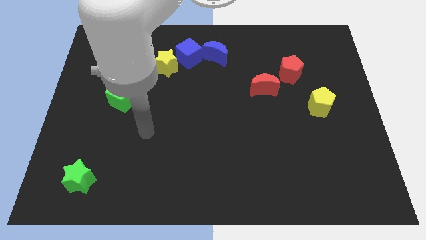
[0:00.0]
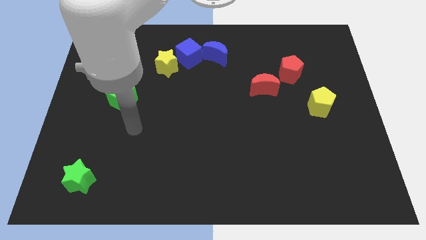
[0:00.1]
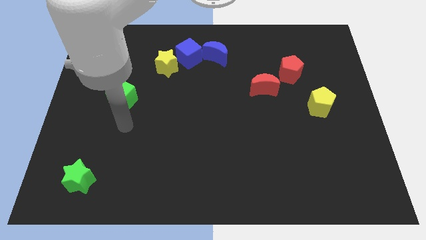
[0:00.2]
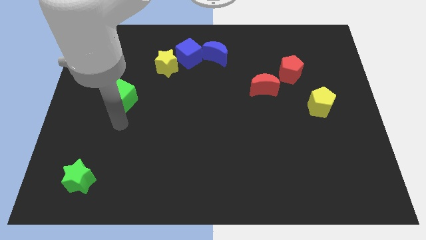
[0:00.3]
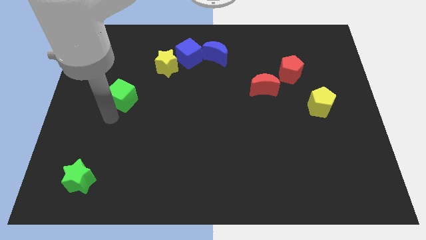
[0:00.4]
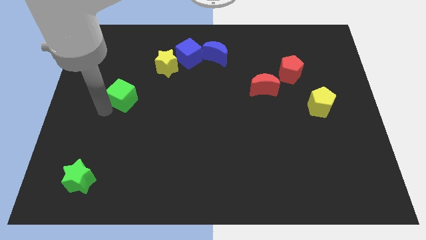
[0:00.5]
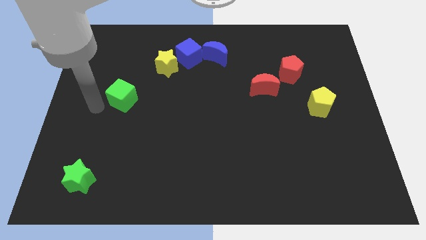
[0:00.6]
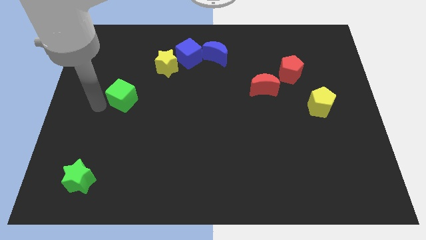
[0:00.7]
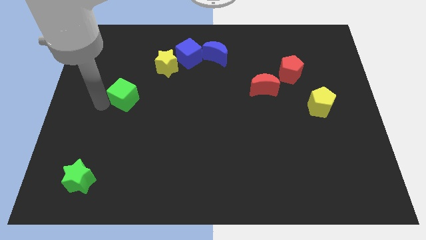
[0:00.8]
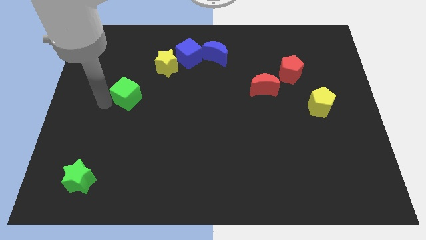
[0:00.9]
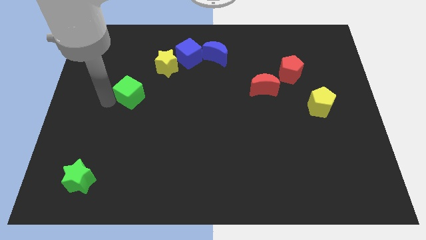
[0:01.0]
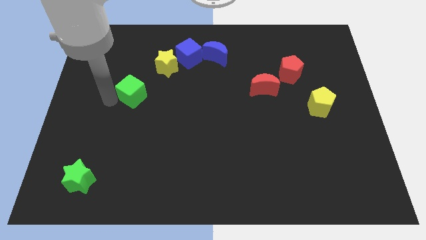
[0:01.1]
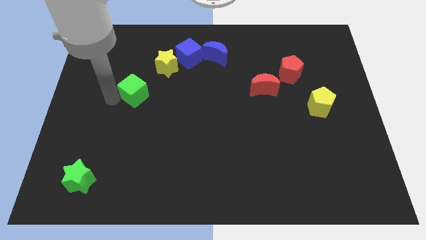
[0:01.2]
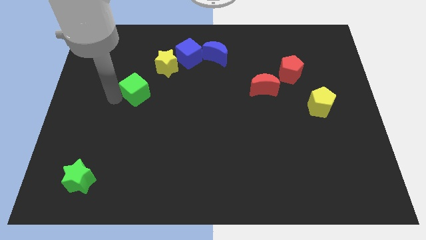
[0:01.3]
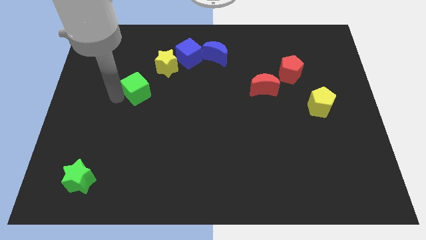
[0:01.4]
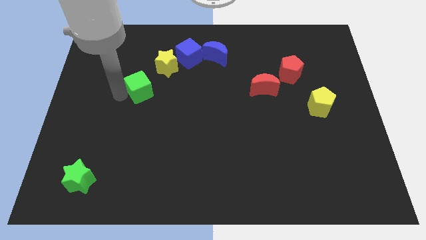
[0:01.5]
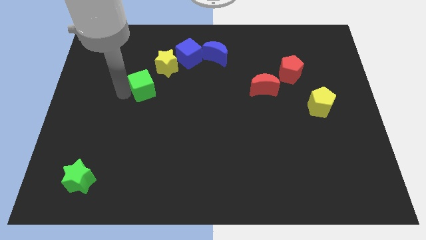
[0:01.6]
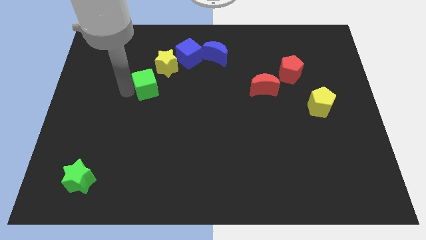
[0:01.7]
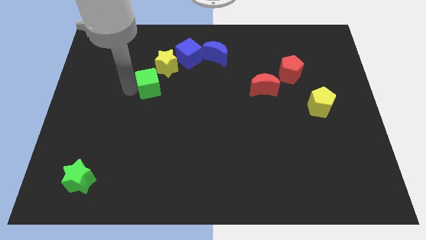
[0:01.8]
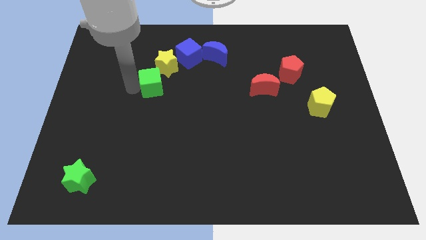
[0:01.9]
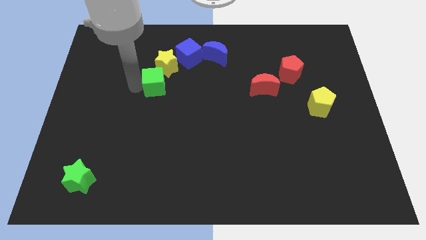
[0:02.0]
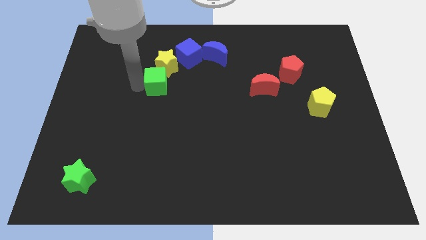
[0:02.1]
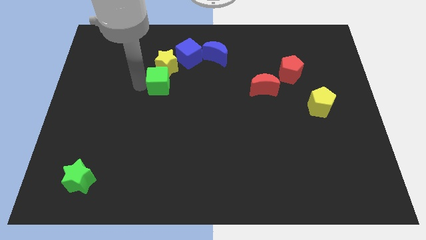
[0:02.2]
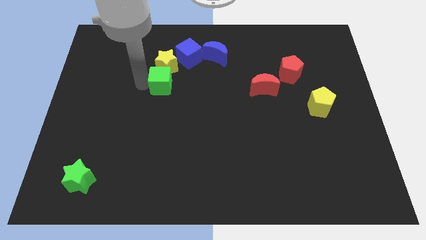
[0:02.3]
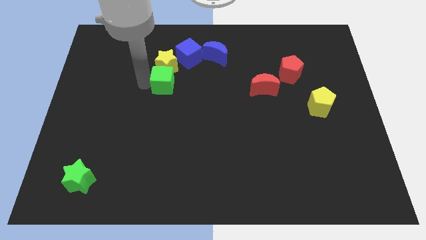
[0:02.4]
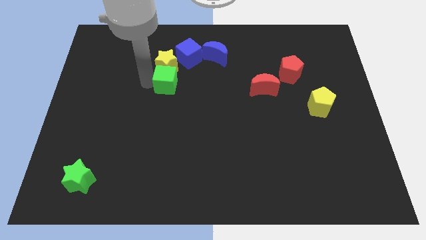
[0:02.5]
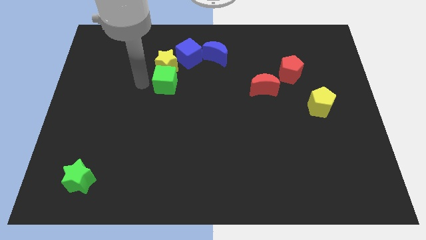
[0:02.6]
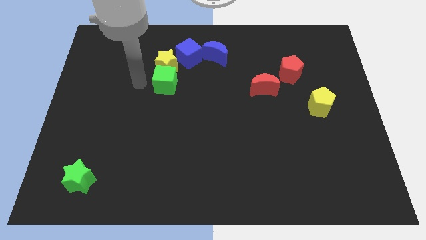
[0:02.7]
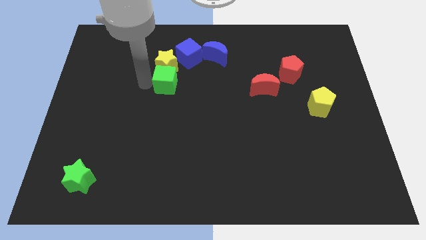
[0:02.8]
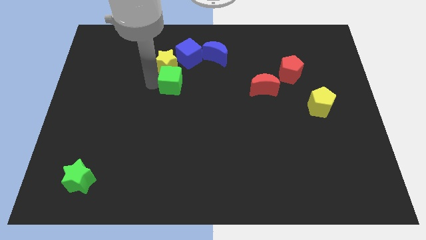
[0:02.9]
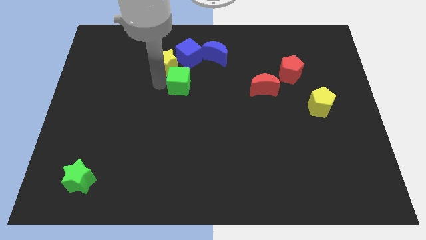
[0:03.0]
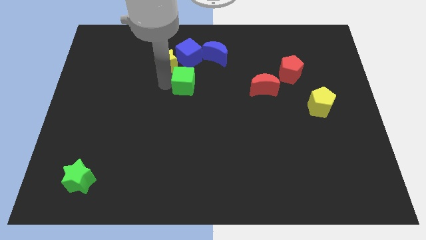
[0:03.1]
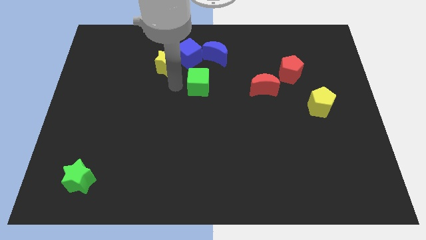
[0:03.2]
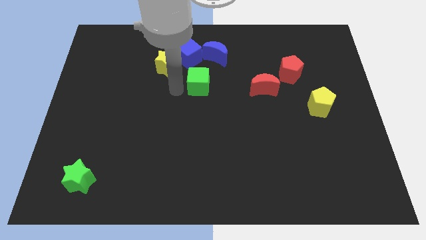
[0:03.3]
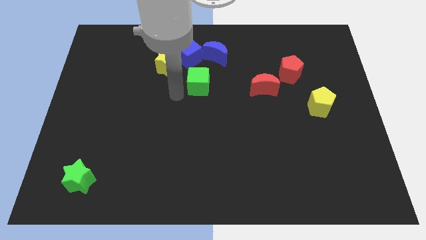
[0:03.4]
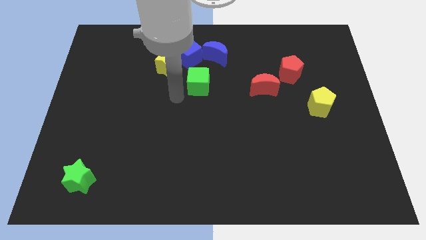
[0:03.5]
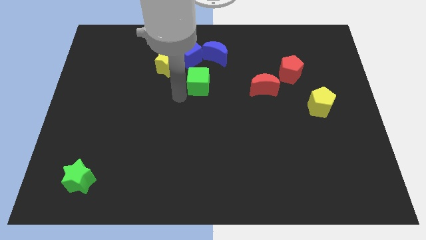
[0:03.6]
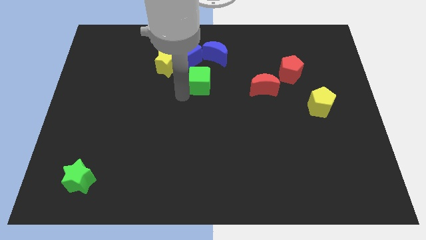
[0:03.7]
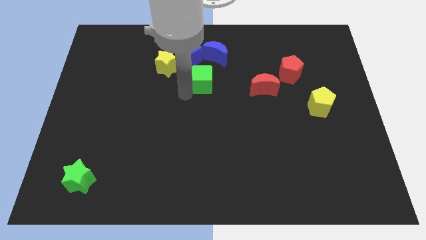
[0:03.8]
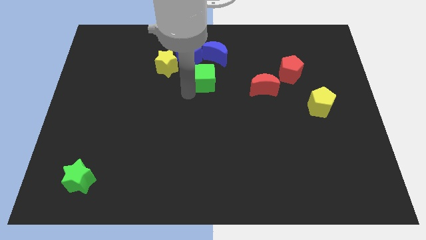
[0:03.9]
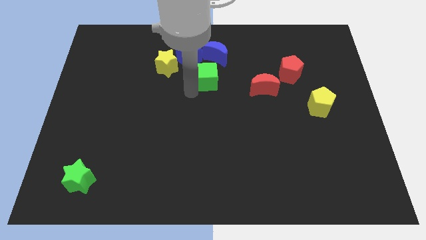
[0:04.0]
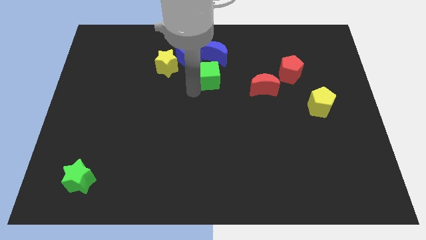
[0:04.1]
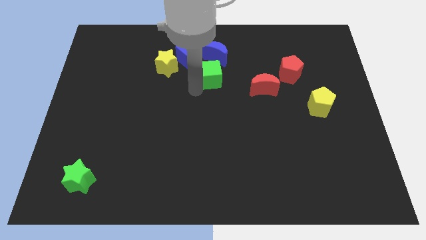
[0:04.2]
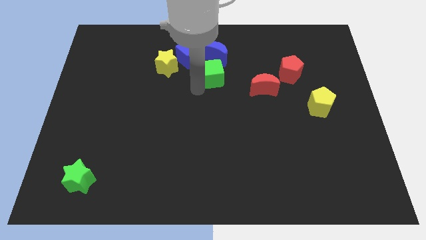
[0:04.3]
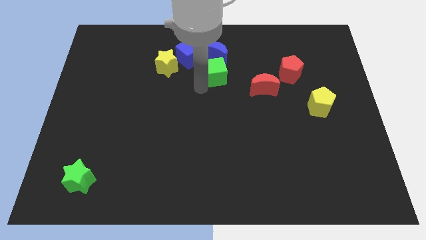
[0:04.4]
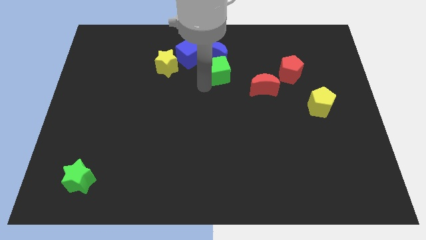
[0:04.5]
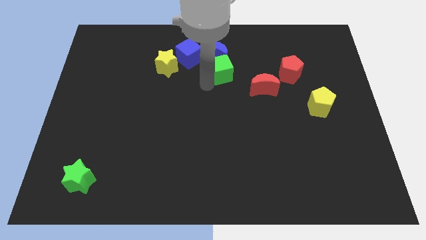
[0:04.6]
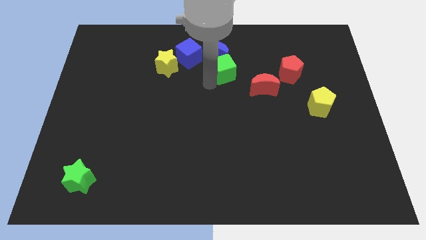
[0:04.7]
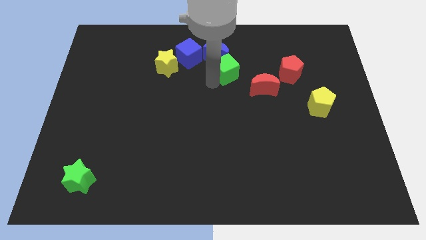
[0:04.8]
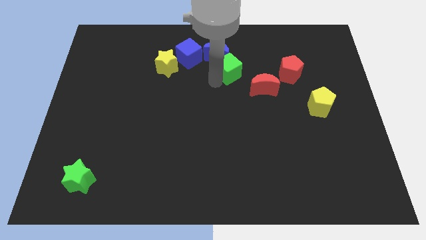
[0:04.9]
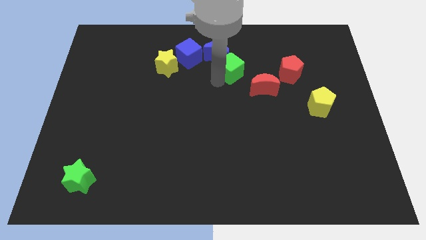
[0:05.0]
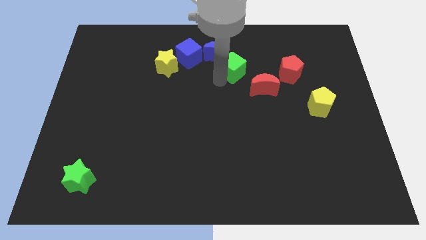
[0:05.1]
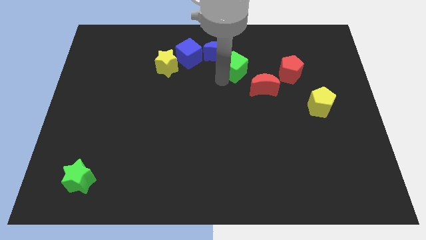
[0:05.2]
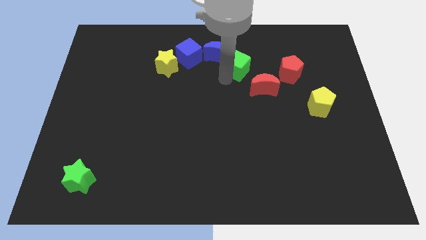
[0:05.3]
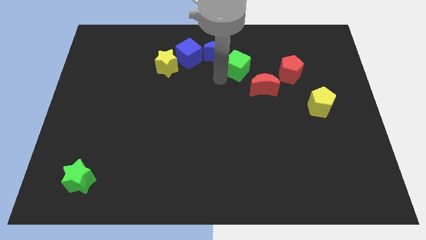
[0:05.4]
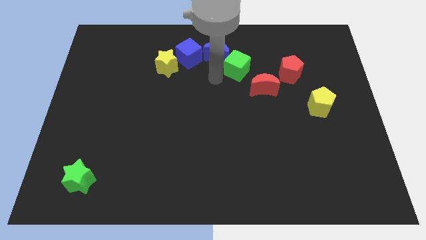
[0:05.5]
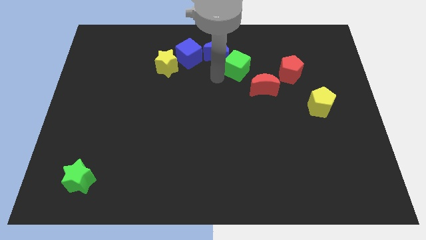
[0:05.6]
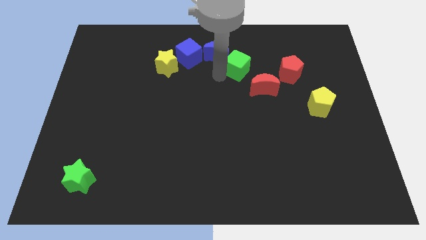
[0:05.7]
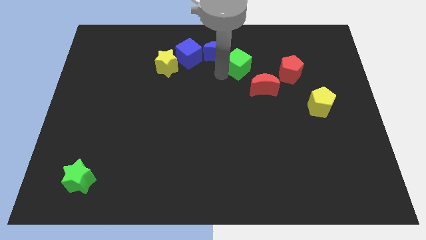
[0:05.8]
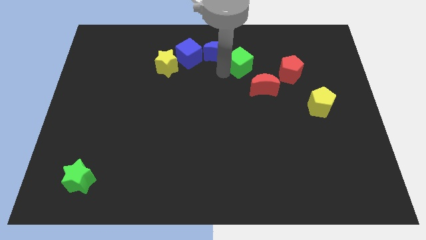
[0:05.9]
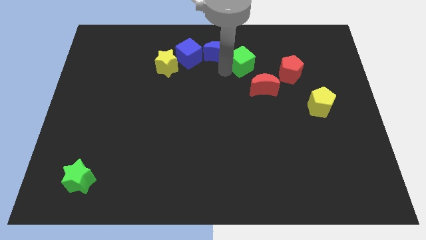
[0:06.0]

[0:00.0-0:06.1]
put the green cube to the top side of the red moon

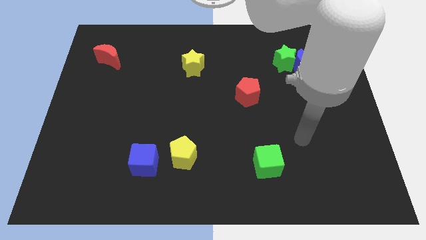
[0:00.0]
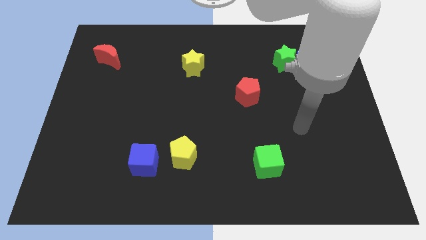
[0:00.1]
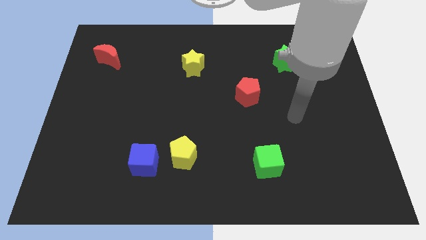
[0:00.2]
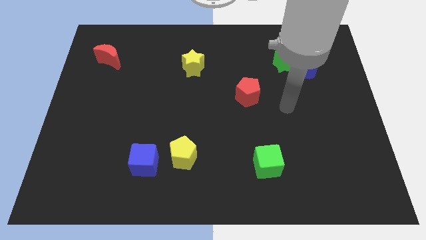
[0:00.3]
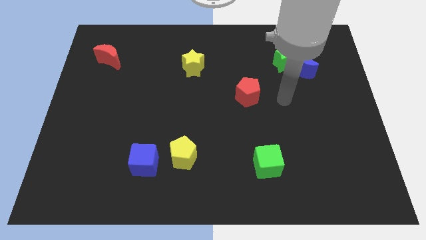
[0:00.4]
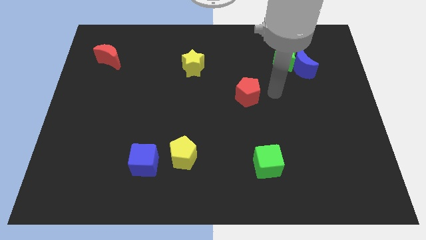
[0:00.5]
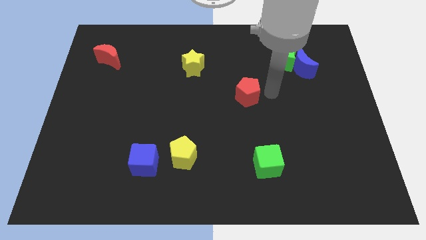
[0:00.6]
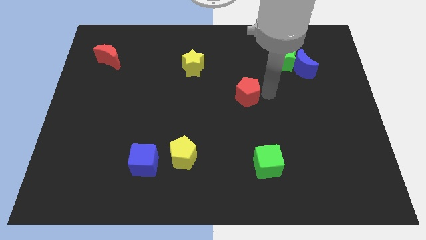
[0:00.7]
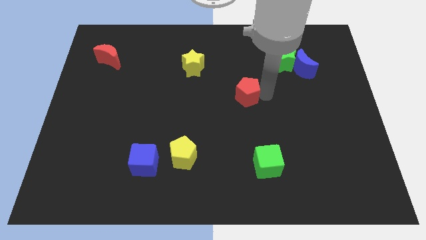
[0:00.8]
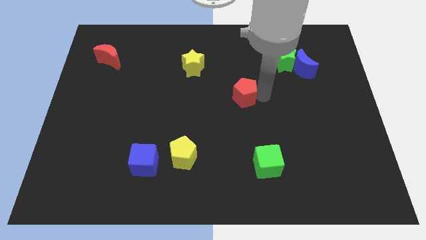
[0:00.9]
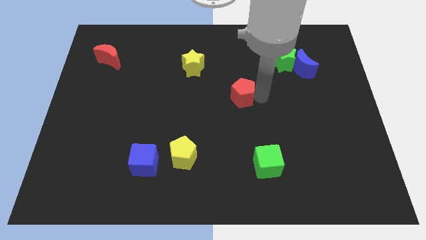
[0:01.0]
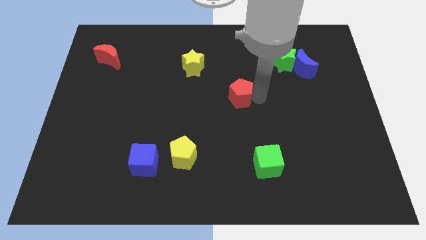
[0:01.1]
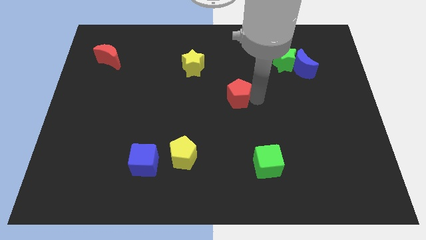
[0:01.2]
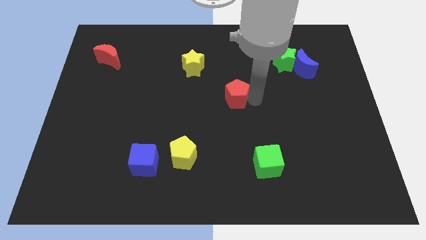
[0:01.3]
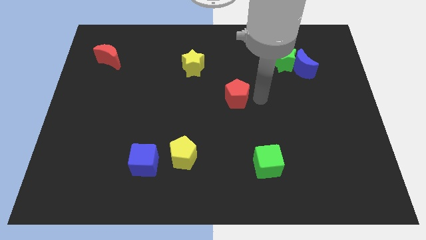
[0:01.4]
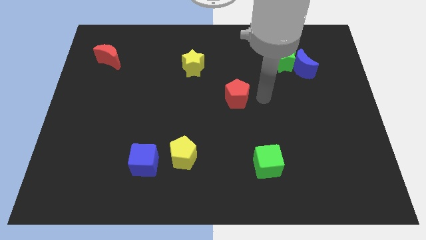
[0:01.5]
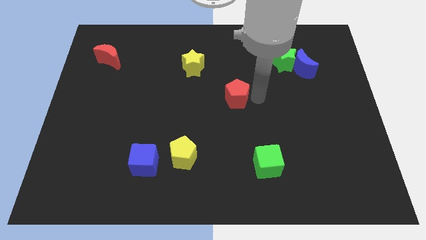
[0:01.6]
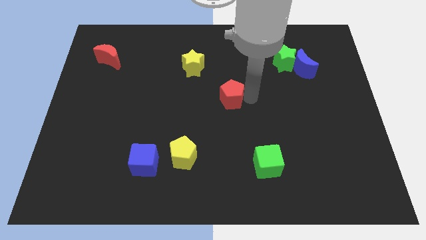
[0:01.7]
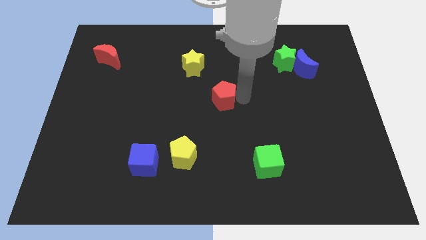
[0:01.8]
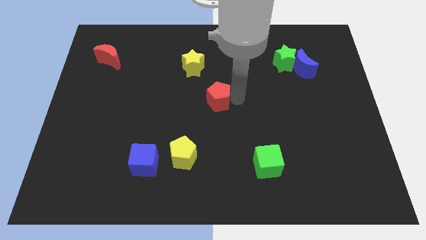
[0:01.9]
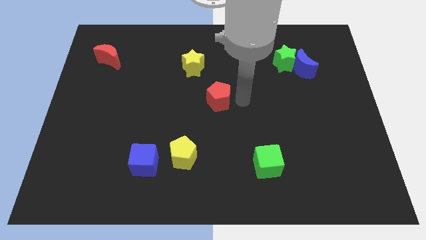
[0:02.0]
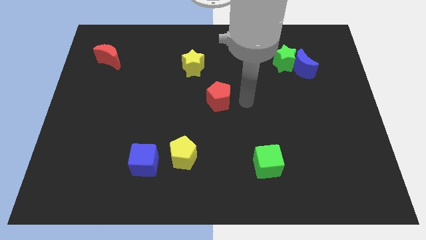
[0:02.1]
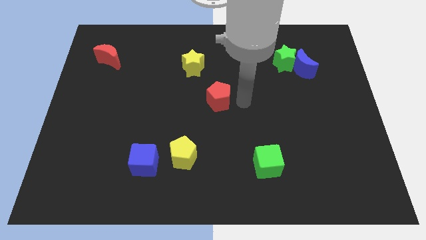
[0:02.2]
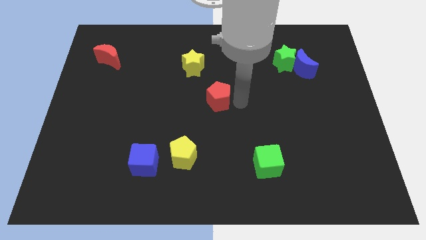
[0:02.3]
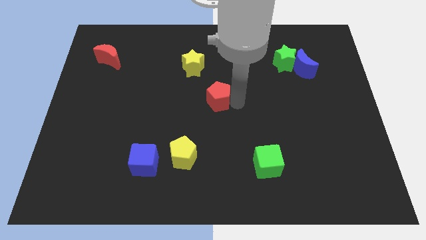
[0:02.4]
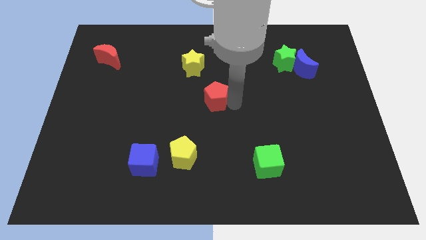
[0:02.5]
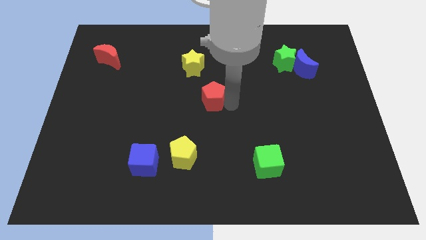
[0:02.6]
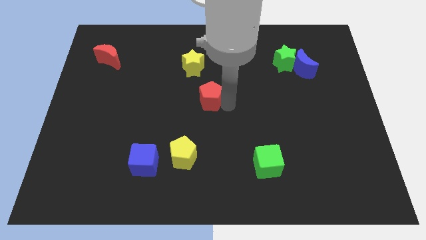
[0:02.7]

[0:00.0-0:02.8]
move the red pentagon below the yellow star
